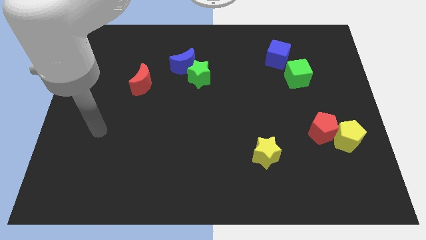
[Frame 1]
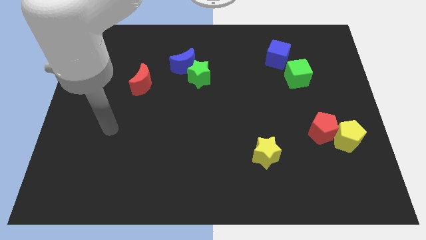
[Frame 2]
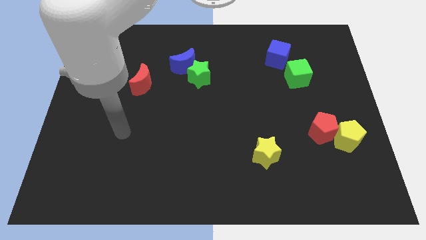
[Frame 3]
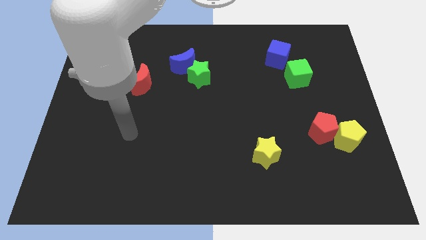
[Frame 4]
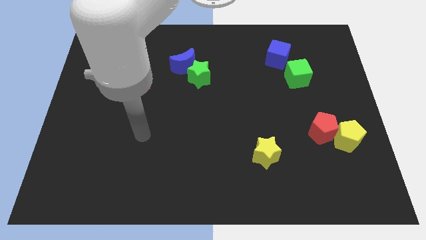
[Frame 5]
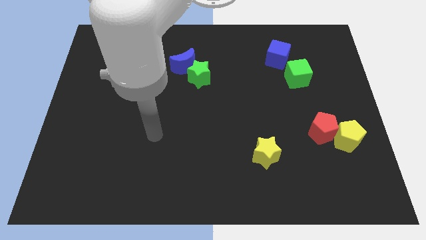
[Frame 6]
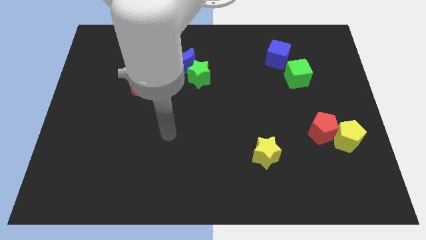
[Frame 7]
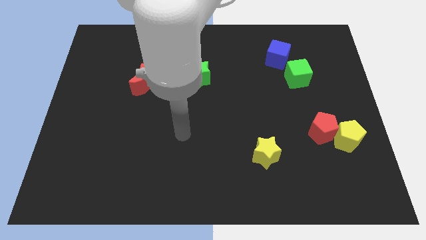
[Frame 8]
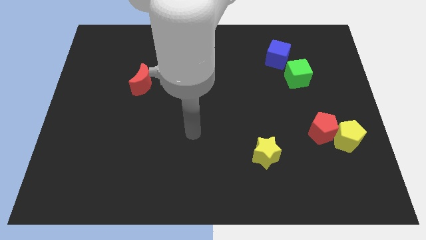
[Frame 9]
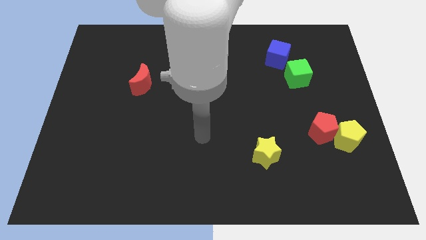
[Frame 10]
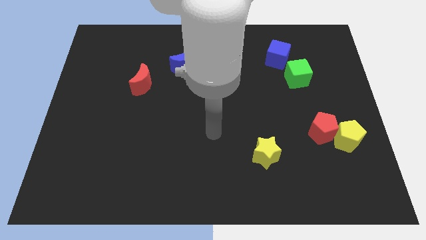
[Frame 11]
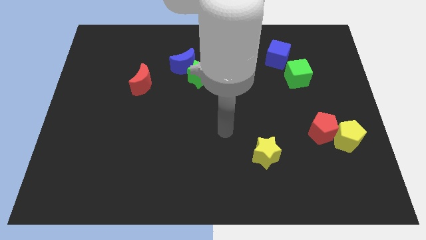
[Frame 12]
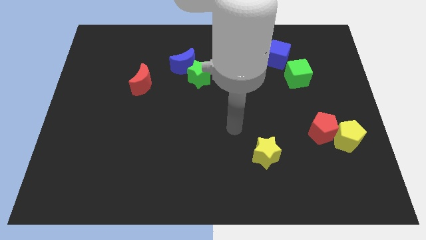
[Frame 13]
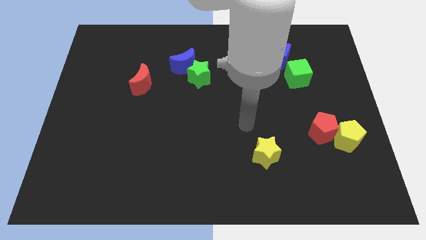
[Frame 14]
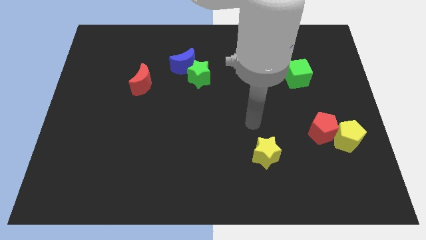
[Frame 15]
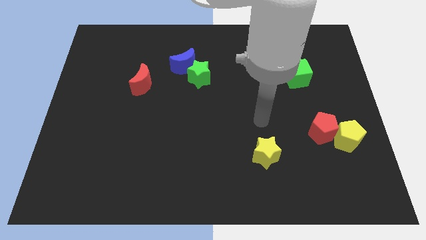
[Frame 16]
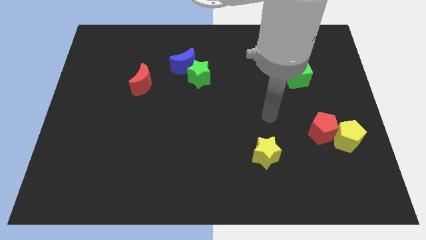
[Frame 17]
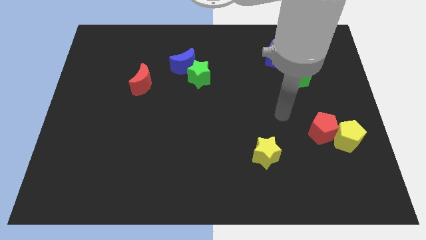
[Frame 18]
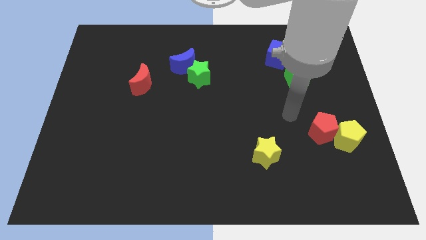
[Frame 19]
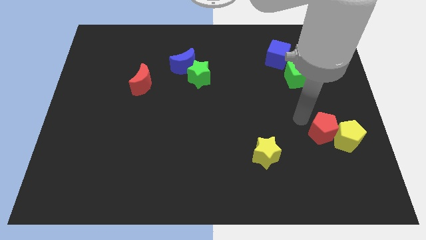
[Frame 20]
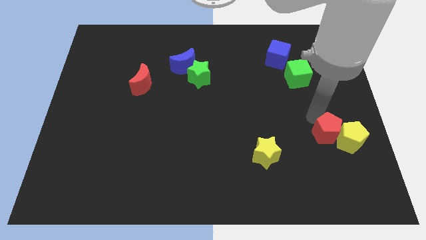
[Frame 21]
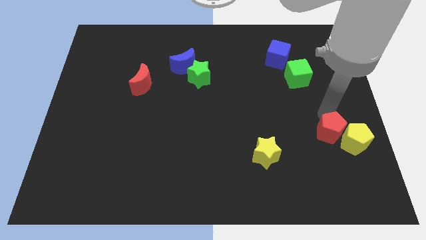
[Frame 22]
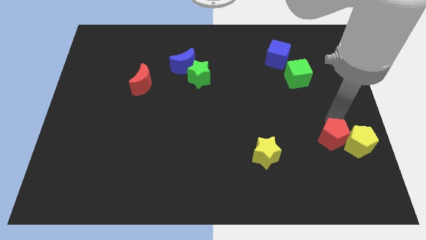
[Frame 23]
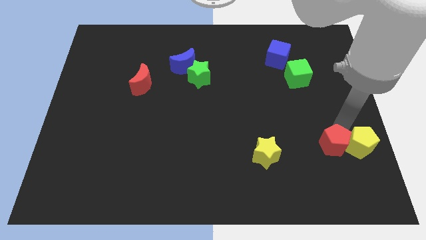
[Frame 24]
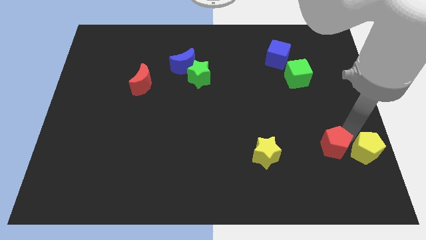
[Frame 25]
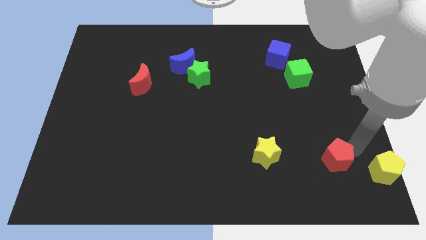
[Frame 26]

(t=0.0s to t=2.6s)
move the red pentagon away from the yellow pentagon

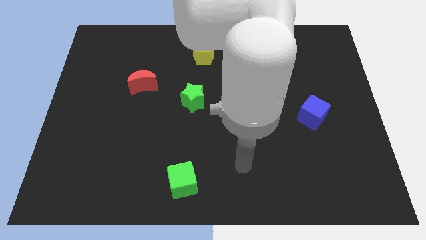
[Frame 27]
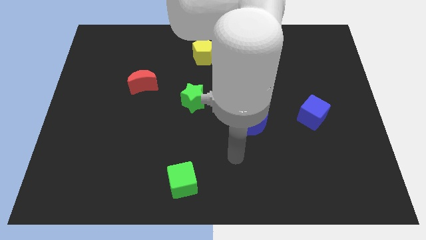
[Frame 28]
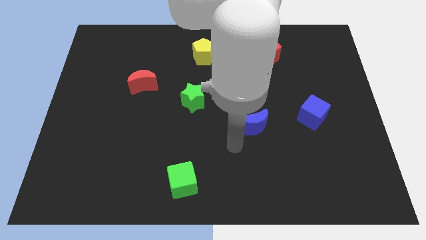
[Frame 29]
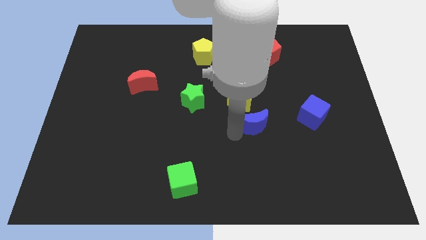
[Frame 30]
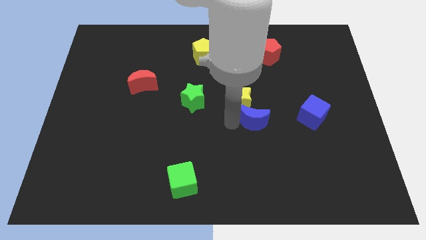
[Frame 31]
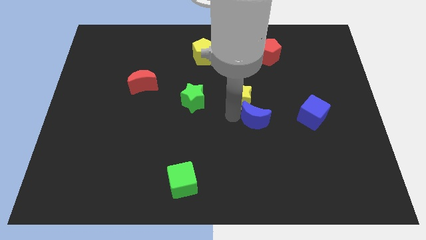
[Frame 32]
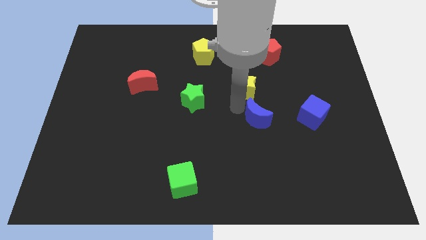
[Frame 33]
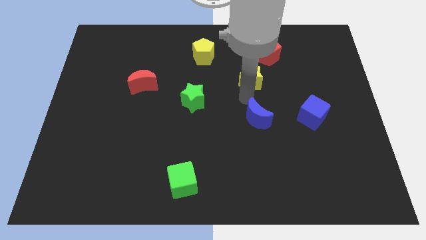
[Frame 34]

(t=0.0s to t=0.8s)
separate the blue moon from the yellow star

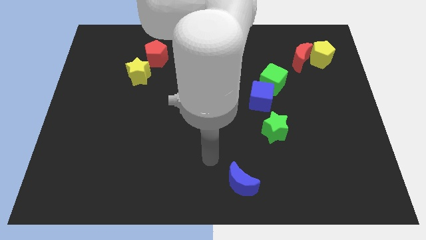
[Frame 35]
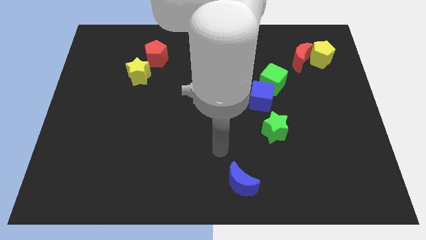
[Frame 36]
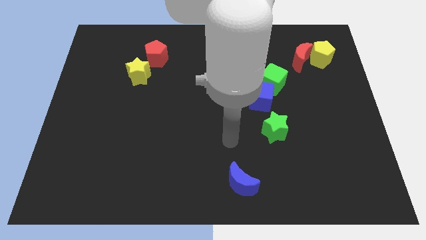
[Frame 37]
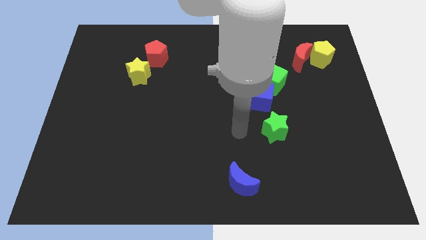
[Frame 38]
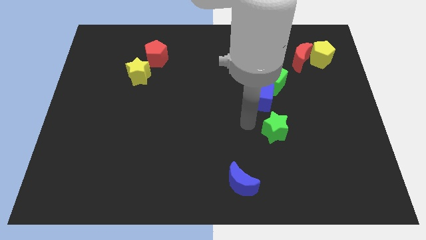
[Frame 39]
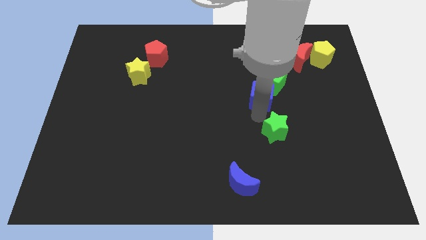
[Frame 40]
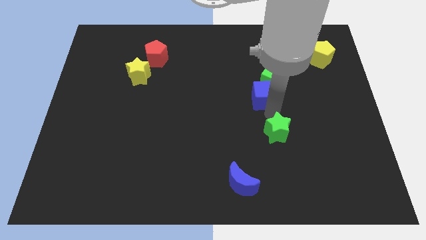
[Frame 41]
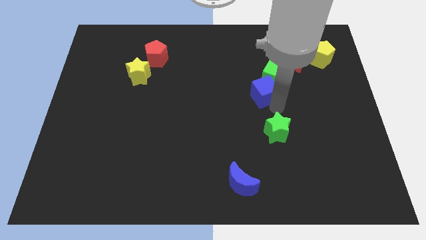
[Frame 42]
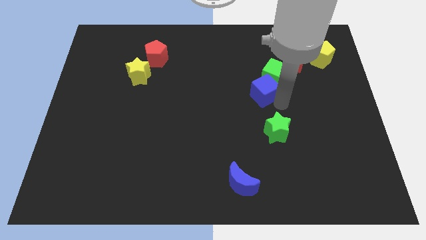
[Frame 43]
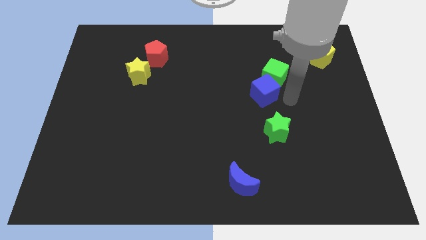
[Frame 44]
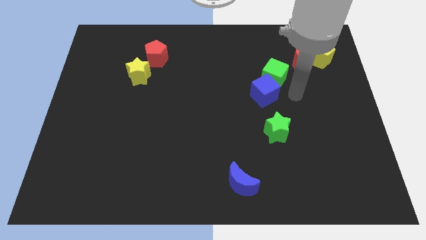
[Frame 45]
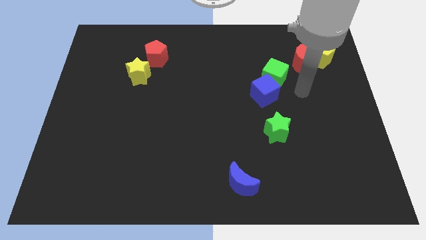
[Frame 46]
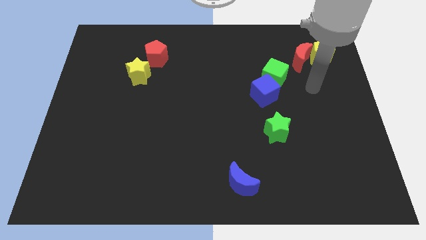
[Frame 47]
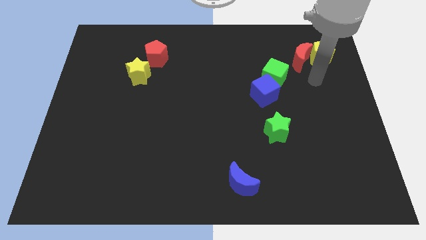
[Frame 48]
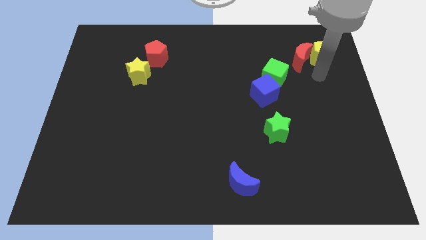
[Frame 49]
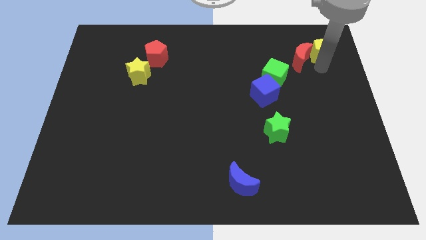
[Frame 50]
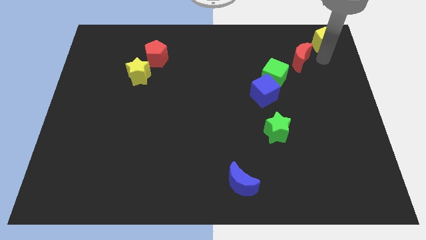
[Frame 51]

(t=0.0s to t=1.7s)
move the red moon away from the yellow pentagon

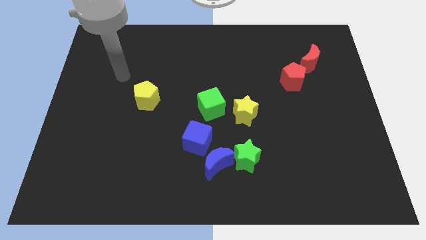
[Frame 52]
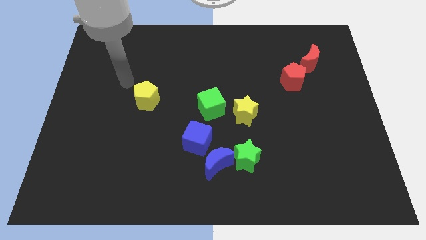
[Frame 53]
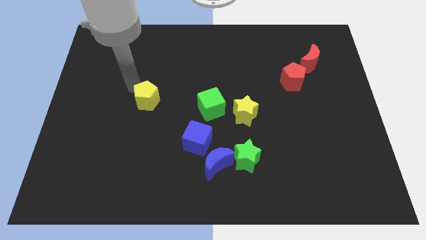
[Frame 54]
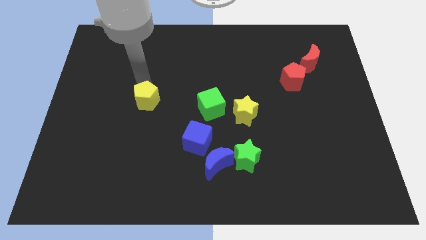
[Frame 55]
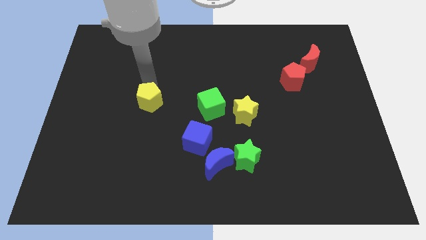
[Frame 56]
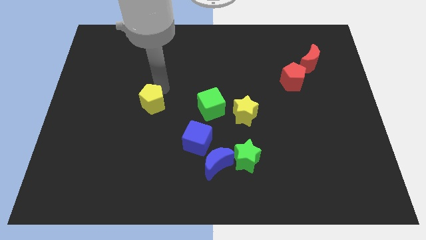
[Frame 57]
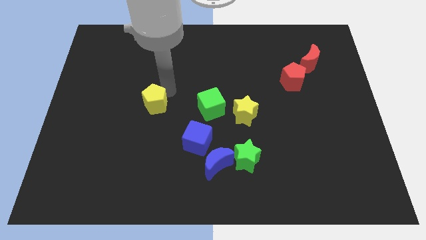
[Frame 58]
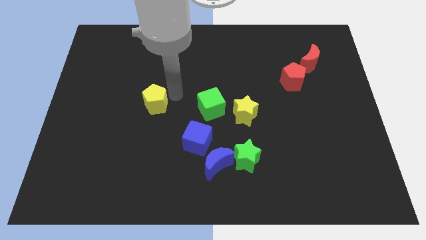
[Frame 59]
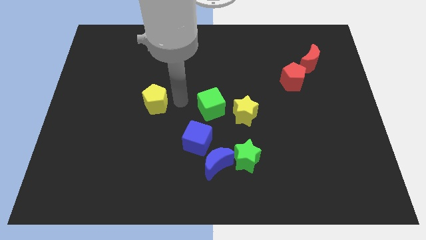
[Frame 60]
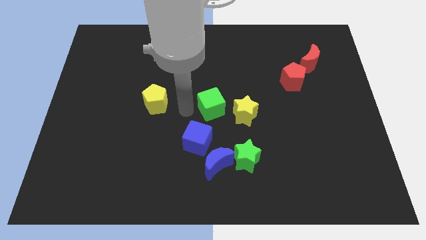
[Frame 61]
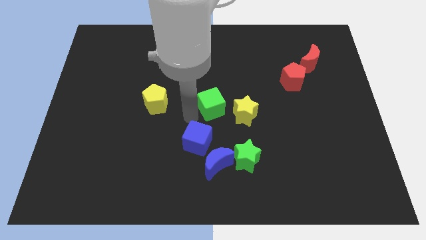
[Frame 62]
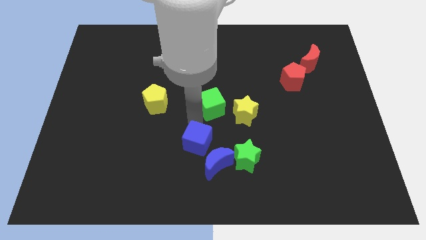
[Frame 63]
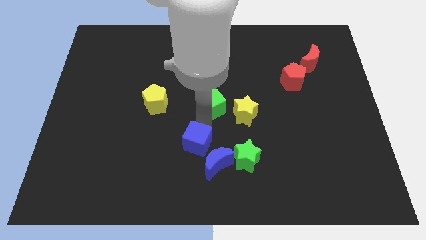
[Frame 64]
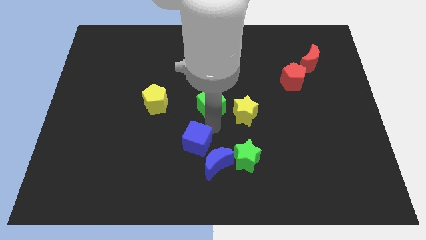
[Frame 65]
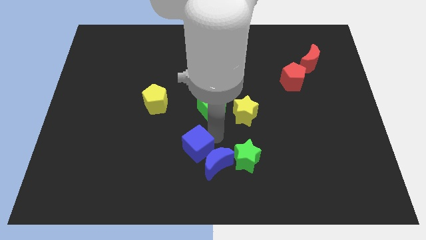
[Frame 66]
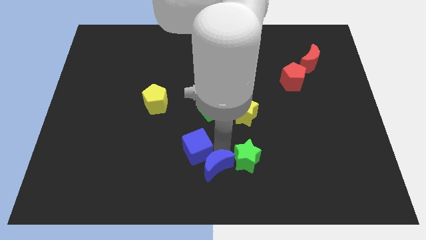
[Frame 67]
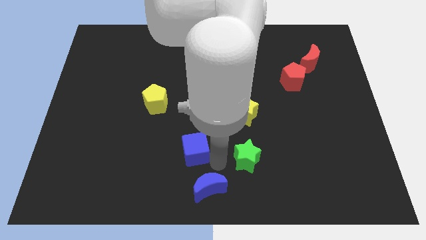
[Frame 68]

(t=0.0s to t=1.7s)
pull the green star apart from the blue moon

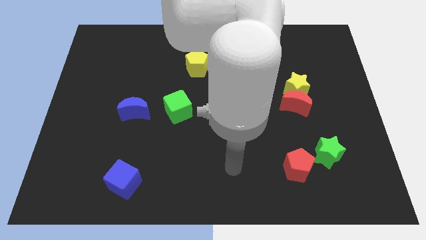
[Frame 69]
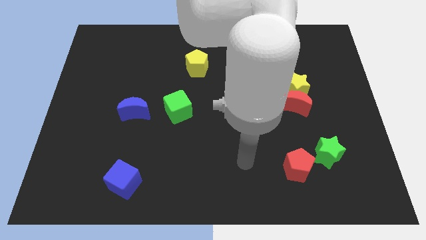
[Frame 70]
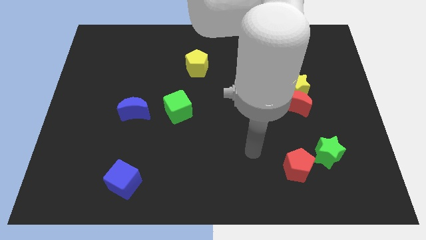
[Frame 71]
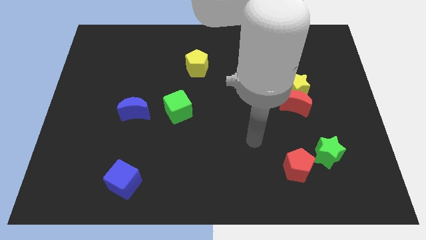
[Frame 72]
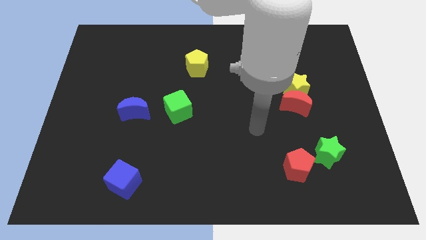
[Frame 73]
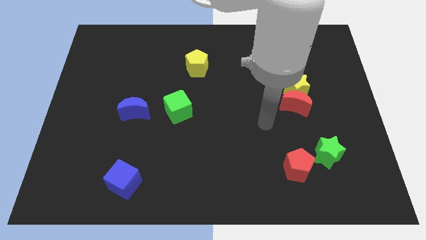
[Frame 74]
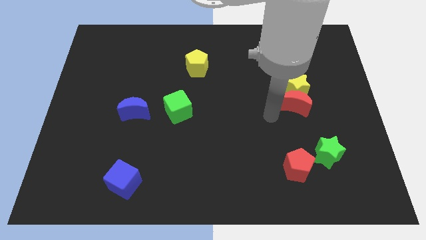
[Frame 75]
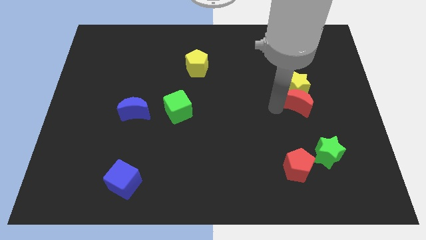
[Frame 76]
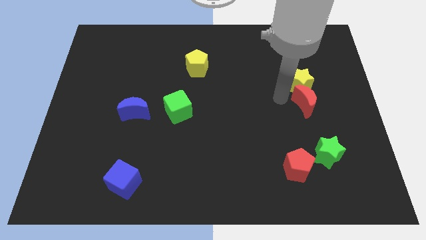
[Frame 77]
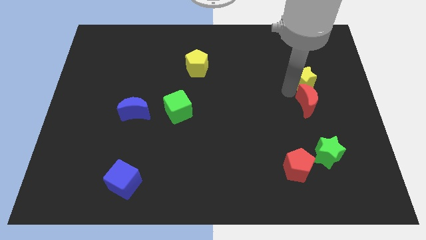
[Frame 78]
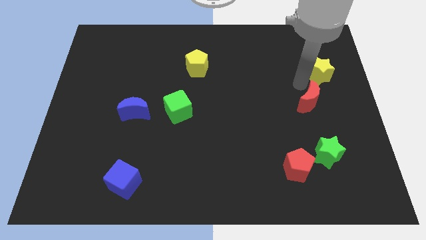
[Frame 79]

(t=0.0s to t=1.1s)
move the red moon away from the yellow star

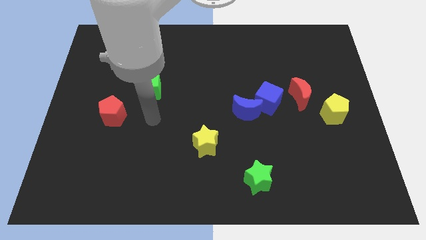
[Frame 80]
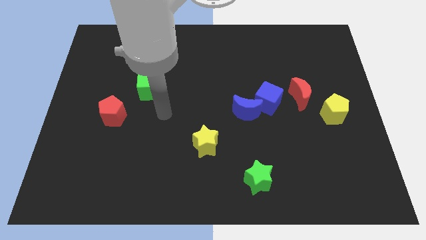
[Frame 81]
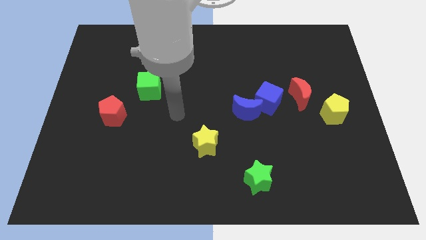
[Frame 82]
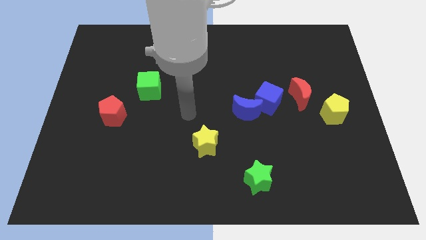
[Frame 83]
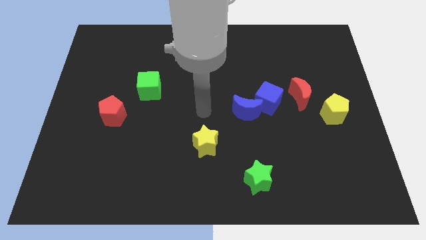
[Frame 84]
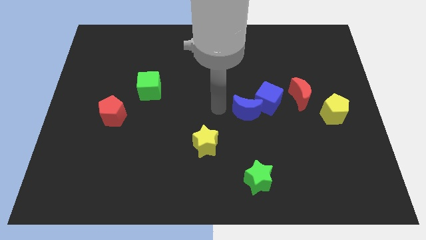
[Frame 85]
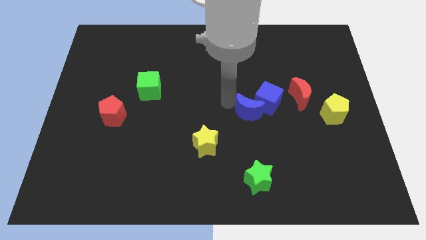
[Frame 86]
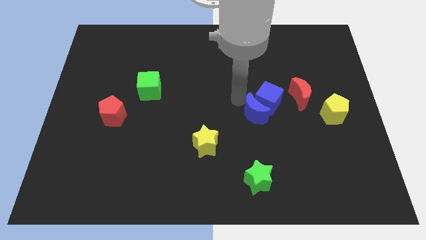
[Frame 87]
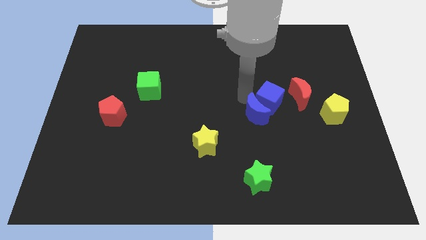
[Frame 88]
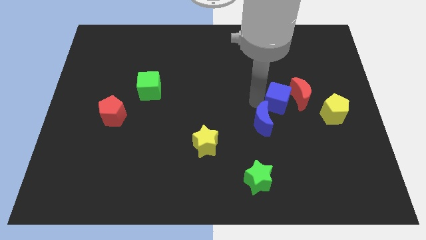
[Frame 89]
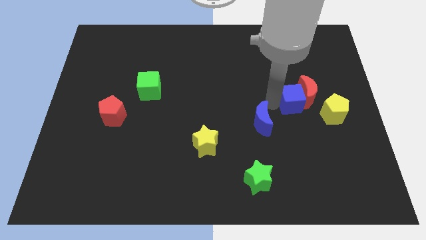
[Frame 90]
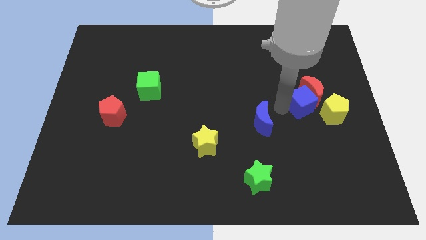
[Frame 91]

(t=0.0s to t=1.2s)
move the blue moon away from the blue cube
